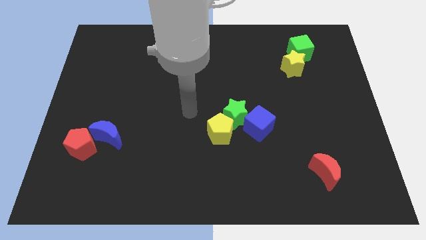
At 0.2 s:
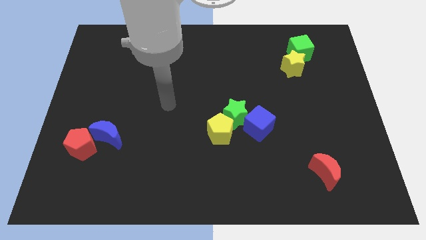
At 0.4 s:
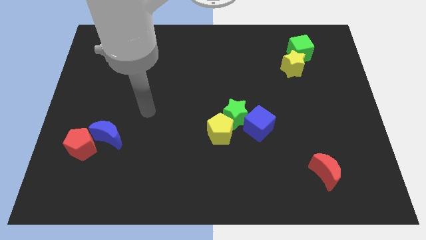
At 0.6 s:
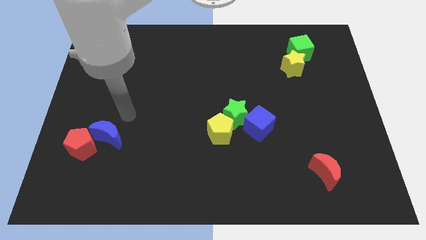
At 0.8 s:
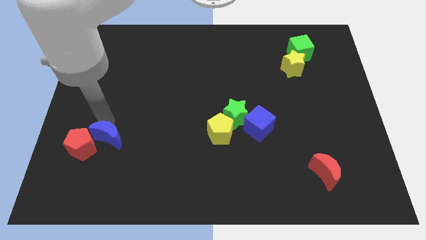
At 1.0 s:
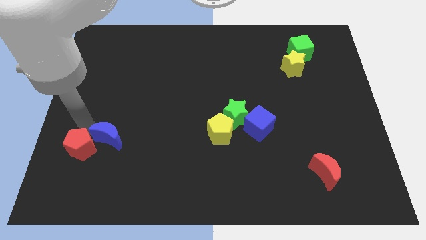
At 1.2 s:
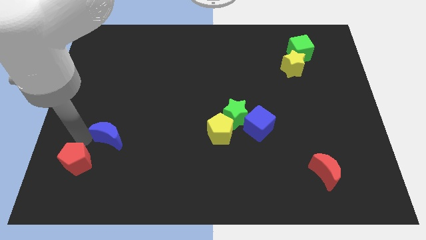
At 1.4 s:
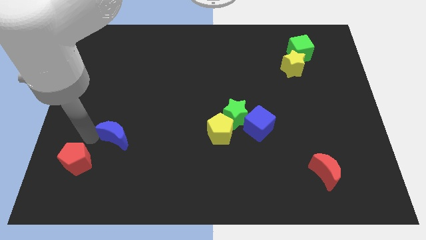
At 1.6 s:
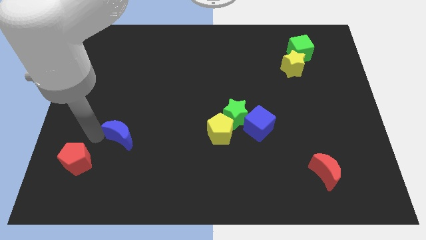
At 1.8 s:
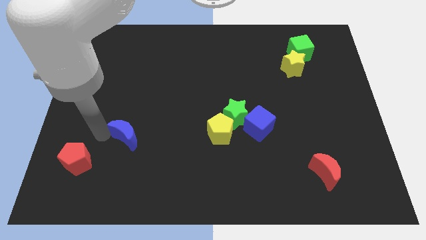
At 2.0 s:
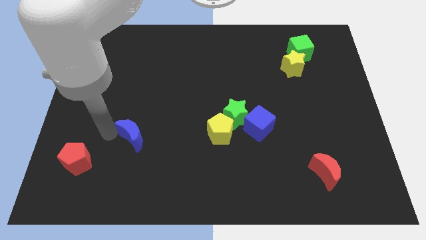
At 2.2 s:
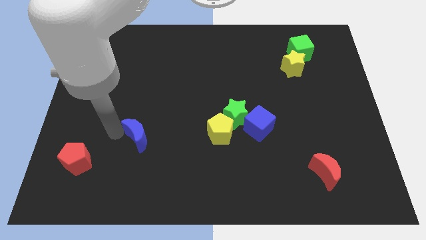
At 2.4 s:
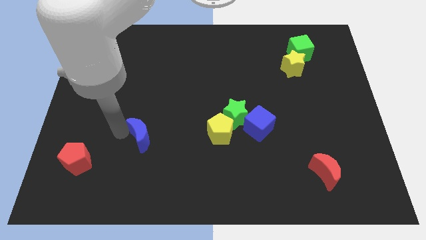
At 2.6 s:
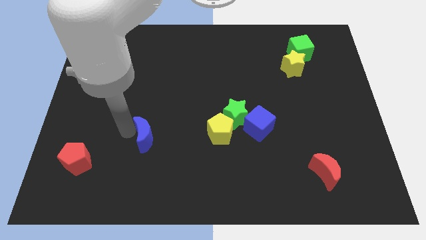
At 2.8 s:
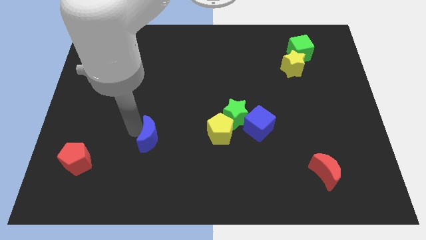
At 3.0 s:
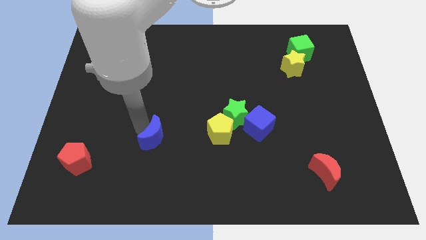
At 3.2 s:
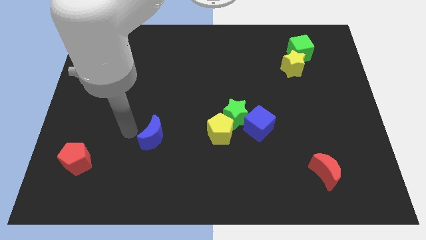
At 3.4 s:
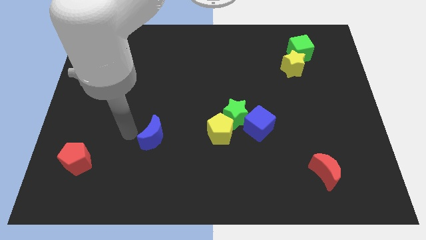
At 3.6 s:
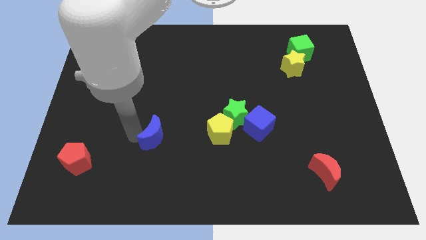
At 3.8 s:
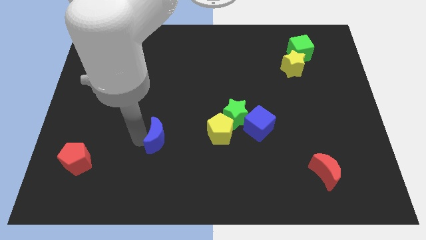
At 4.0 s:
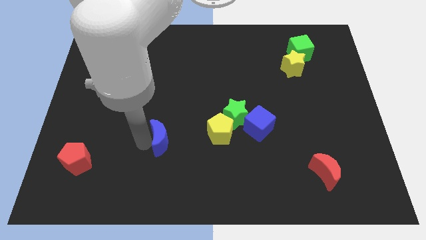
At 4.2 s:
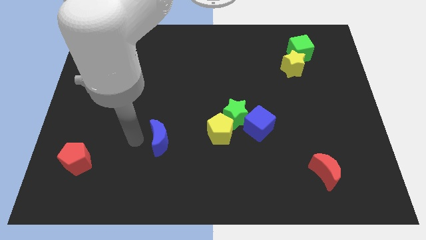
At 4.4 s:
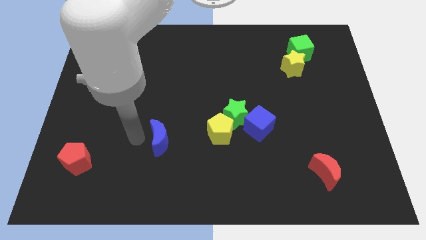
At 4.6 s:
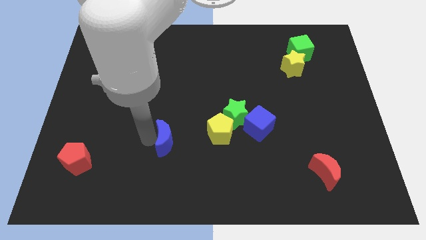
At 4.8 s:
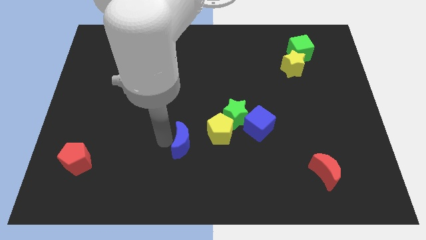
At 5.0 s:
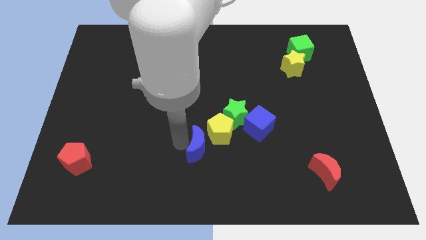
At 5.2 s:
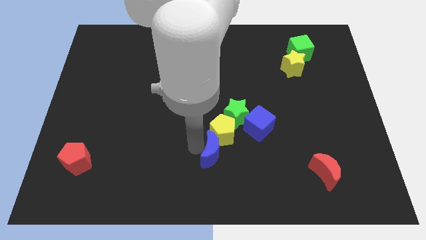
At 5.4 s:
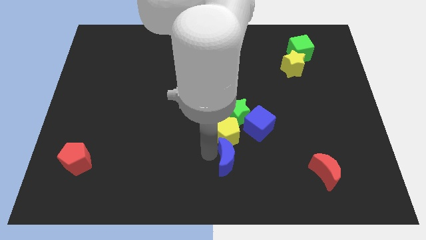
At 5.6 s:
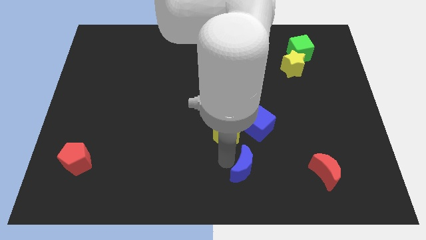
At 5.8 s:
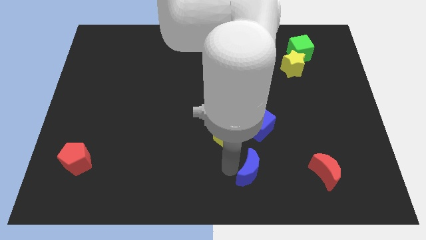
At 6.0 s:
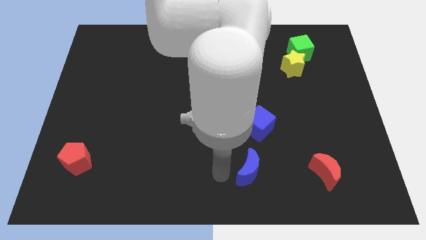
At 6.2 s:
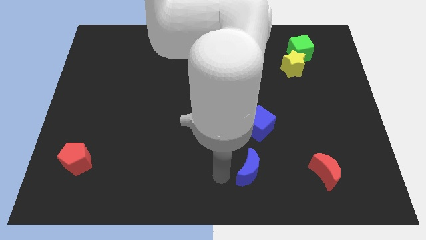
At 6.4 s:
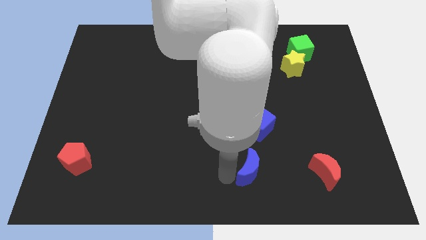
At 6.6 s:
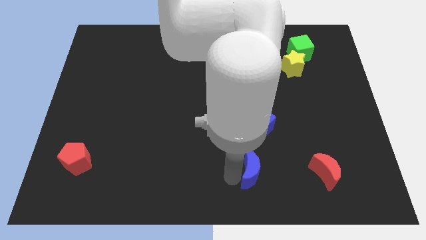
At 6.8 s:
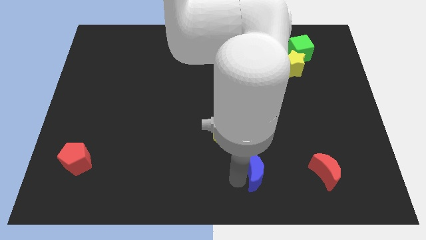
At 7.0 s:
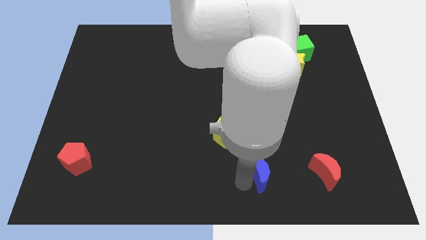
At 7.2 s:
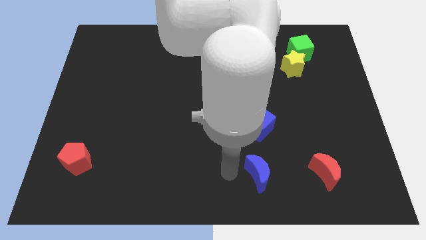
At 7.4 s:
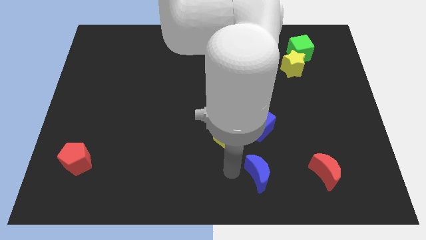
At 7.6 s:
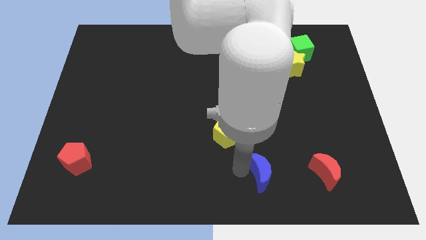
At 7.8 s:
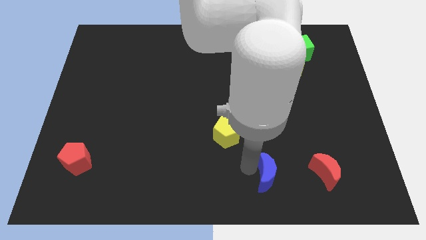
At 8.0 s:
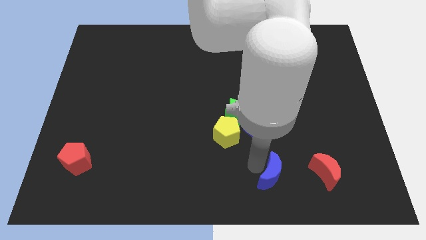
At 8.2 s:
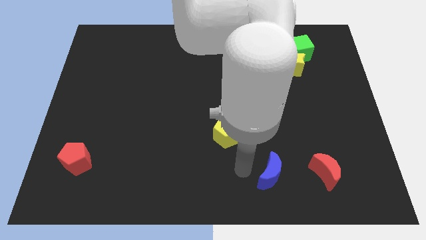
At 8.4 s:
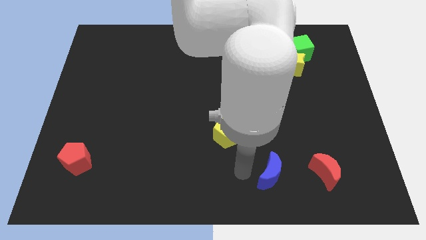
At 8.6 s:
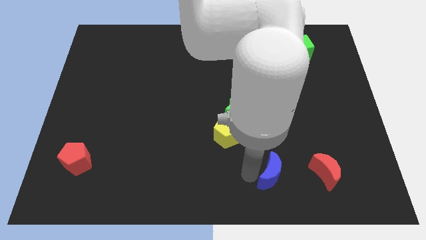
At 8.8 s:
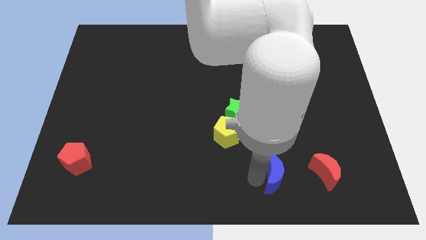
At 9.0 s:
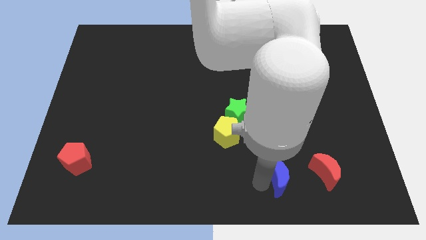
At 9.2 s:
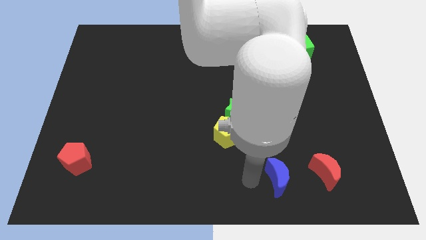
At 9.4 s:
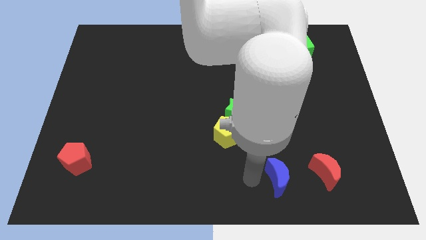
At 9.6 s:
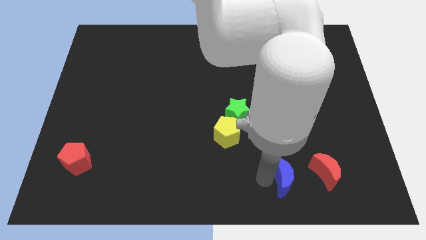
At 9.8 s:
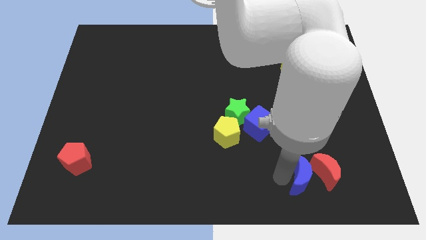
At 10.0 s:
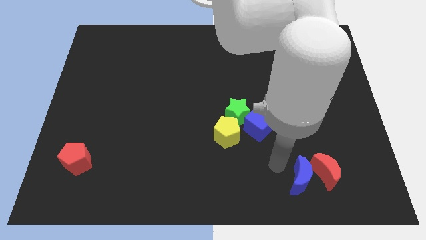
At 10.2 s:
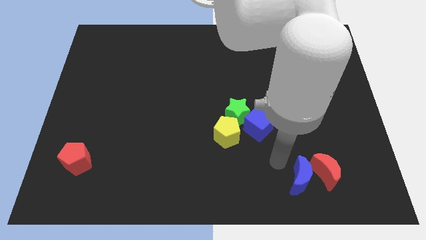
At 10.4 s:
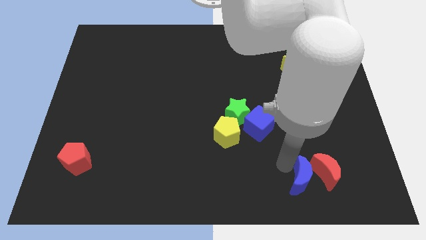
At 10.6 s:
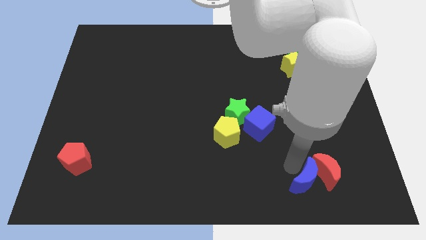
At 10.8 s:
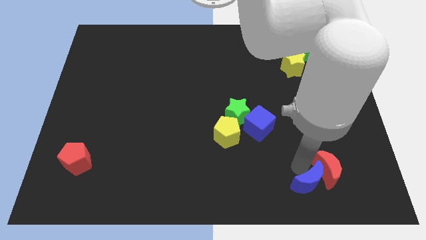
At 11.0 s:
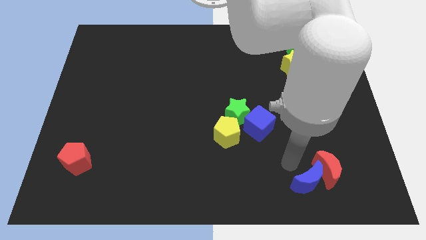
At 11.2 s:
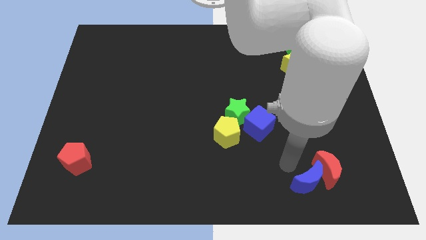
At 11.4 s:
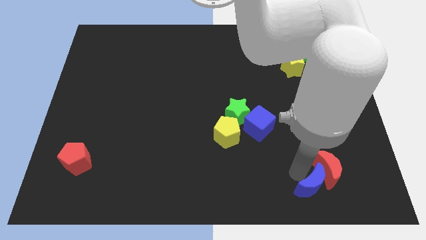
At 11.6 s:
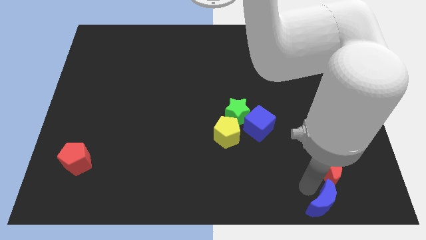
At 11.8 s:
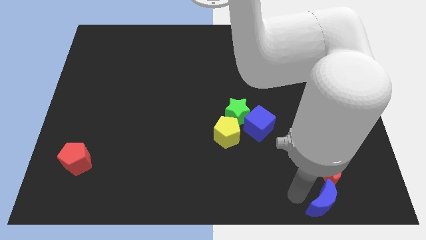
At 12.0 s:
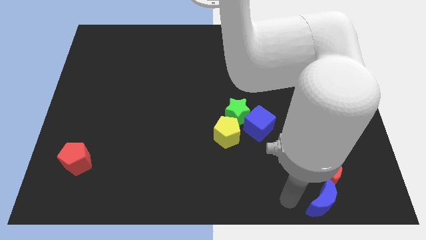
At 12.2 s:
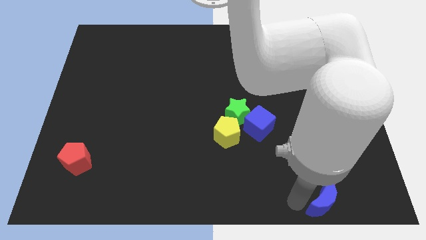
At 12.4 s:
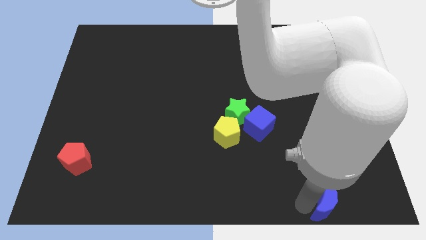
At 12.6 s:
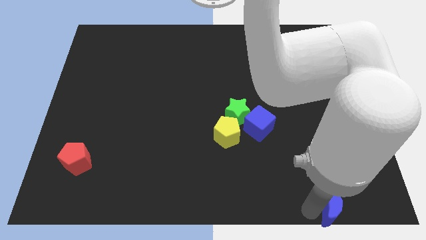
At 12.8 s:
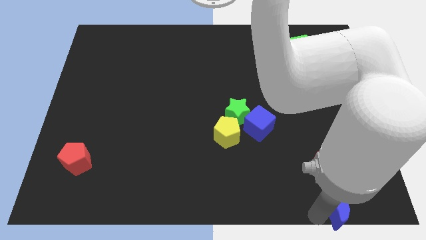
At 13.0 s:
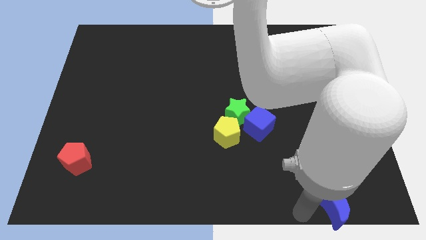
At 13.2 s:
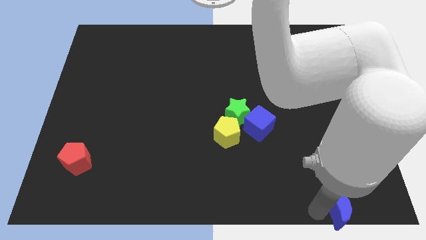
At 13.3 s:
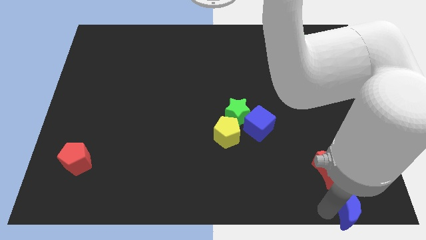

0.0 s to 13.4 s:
put the blue moon to the bottom right
